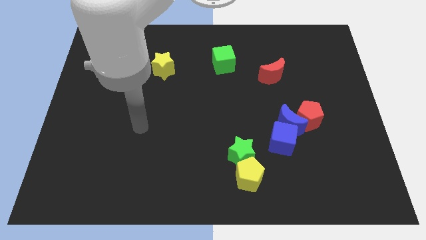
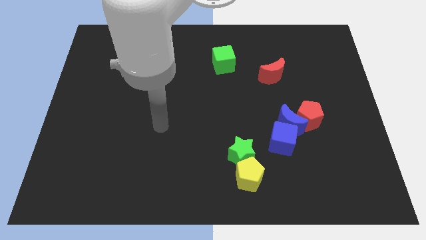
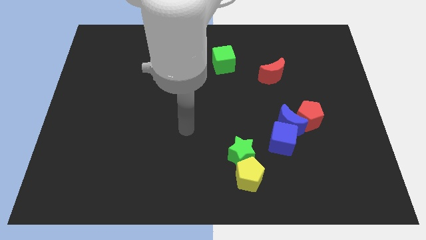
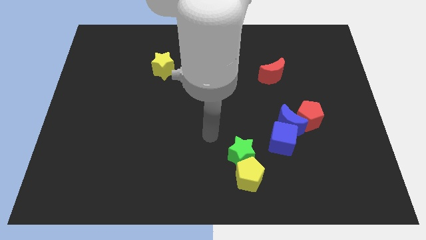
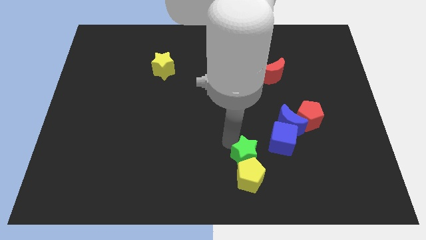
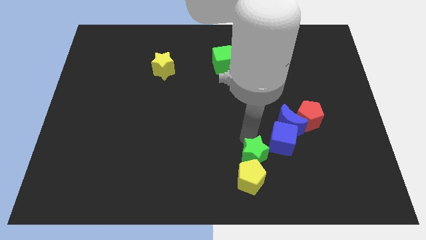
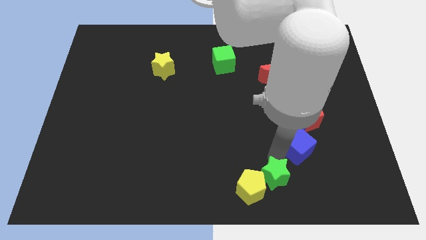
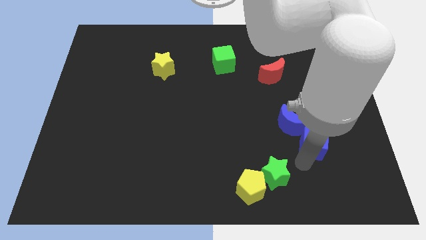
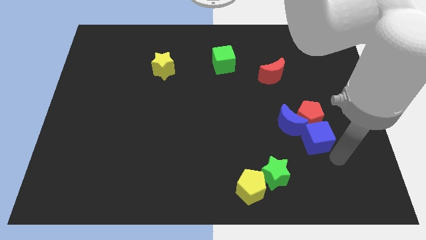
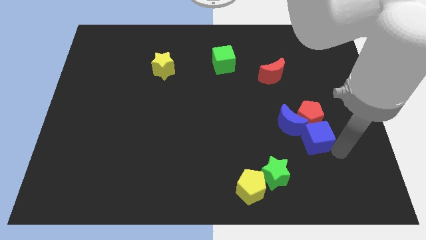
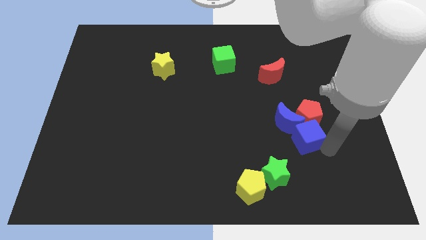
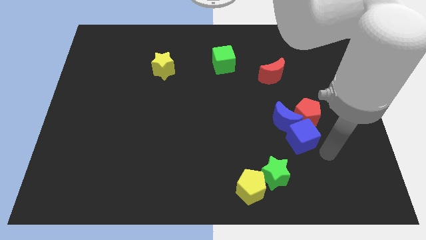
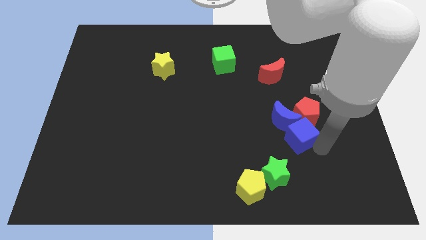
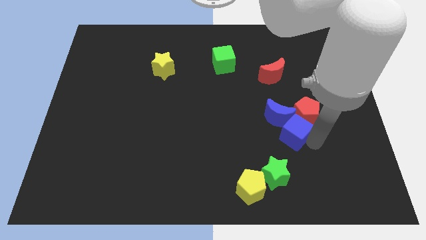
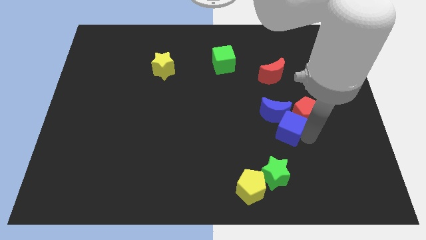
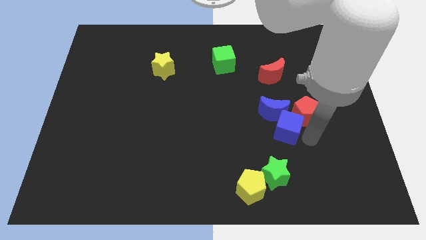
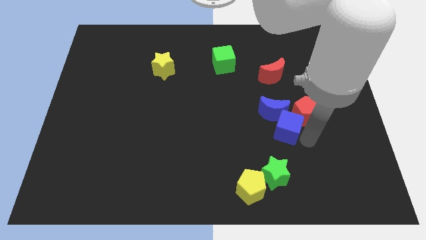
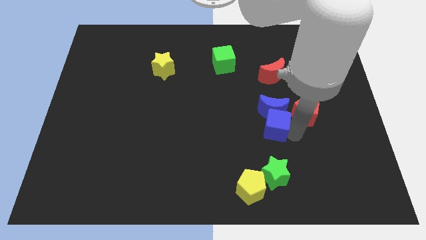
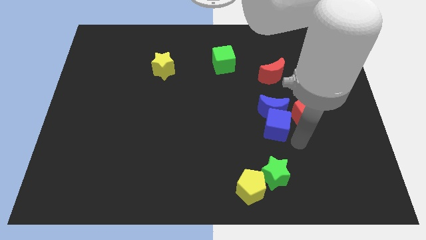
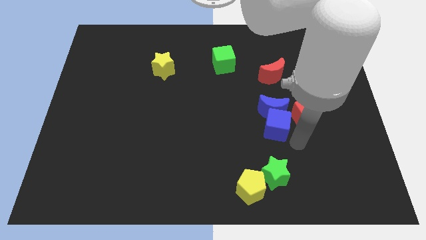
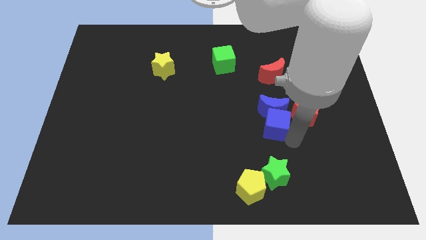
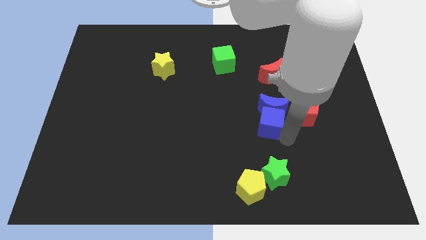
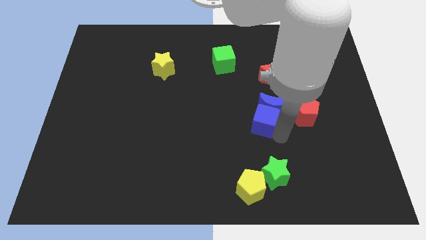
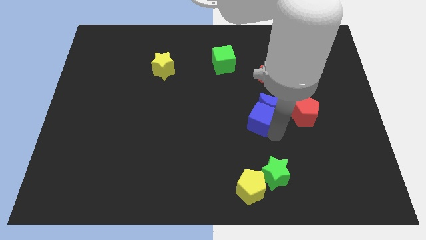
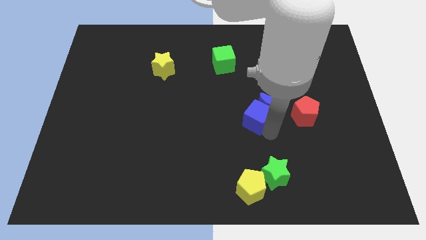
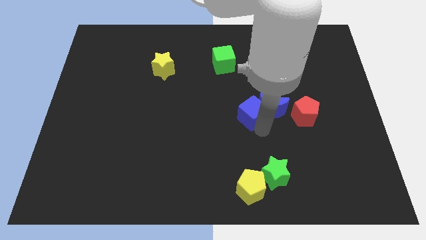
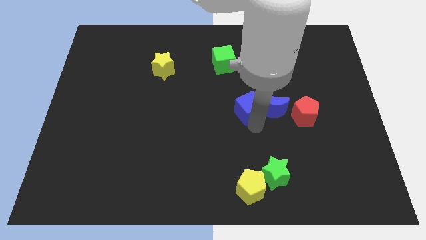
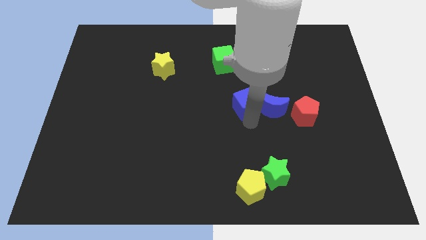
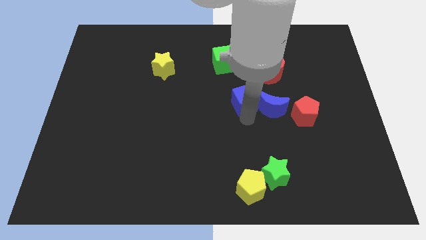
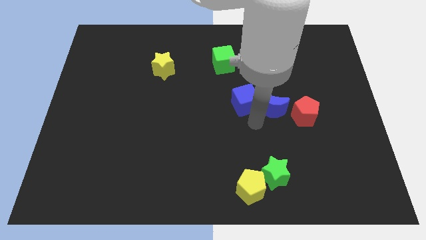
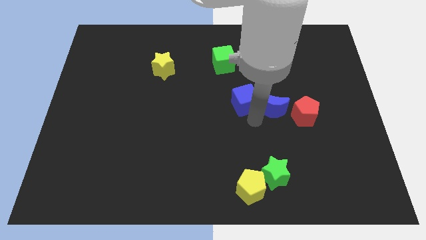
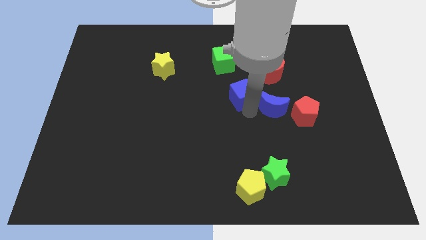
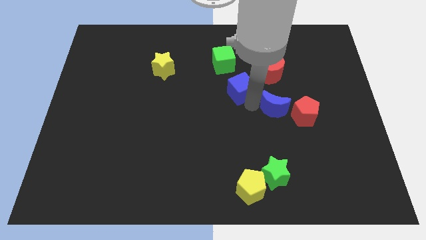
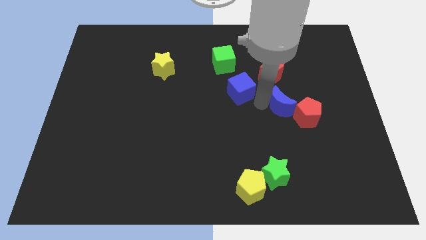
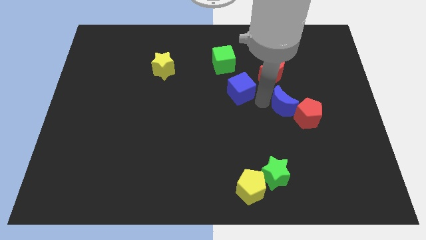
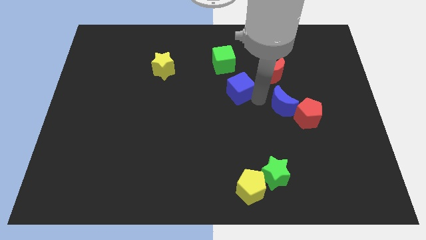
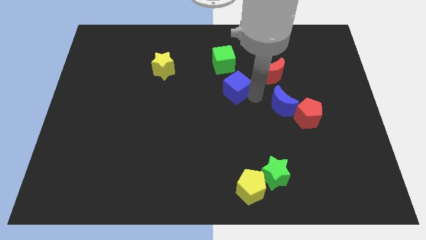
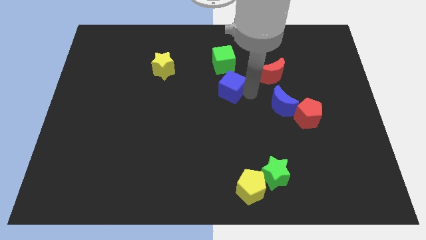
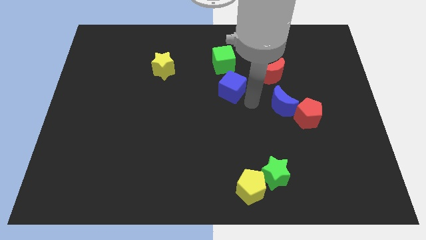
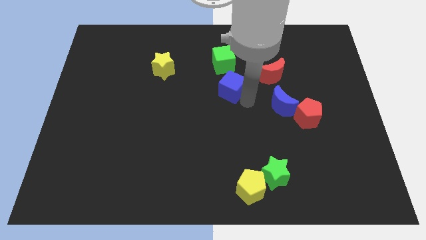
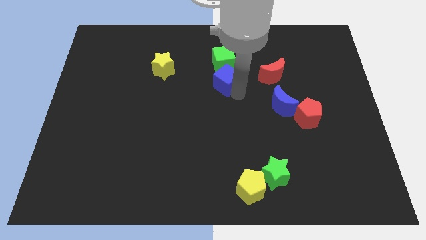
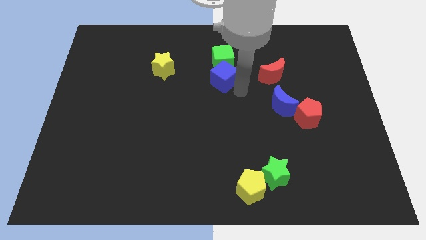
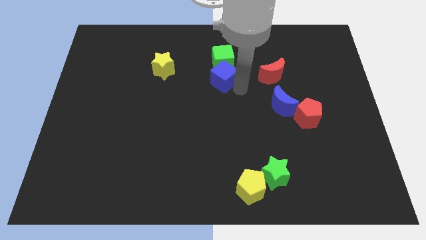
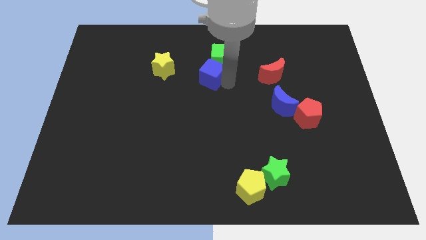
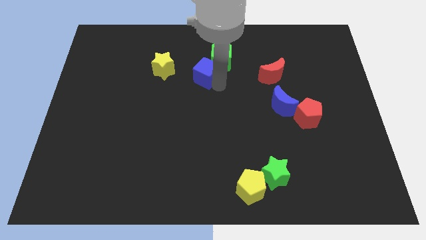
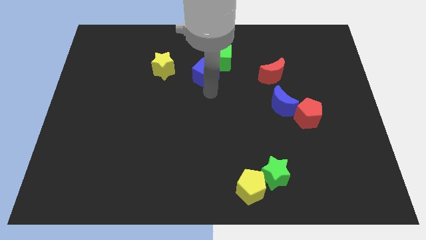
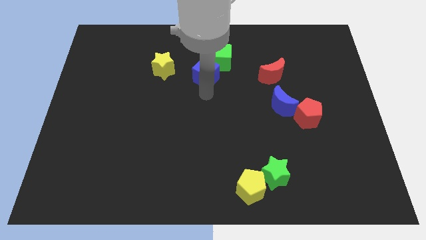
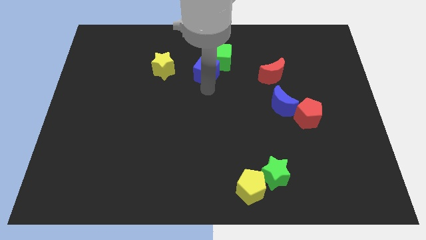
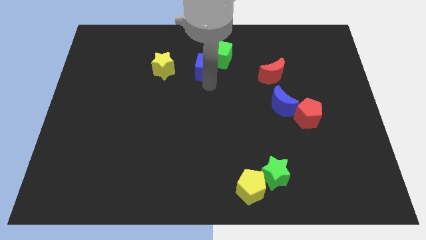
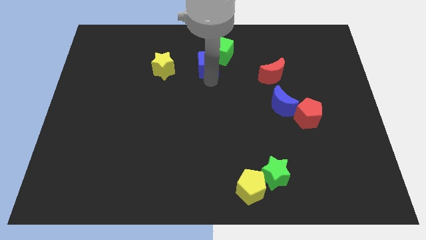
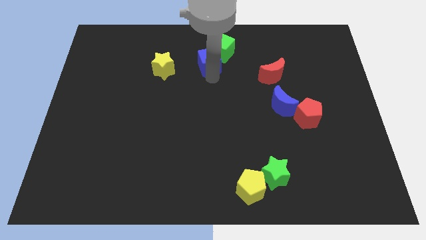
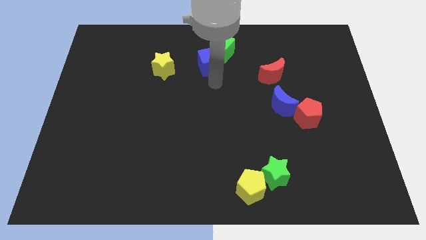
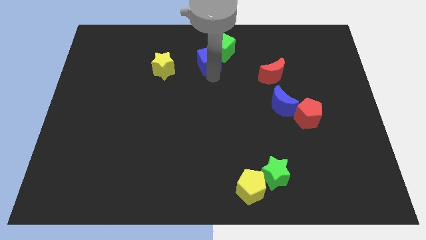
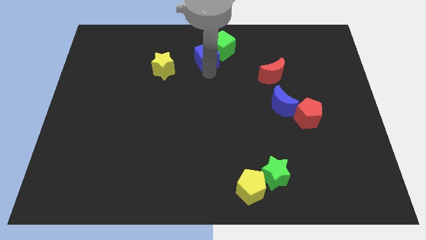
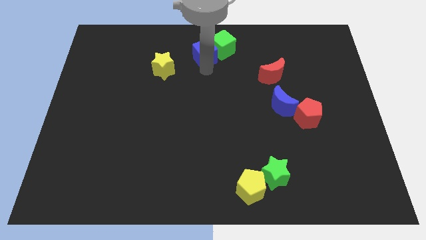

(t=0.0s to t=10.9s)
put the blue cube to the top
